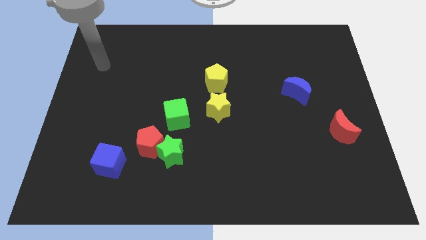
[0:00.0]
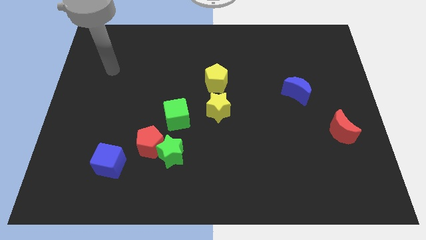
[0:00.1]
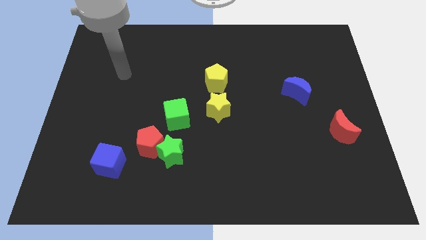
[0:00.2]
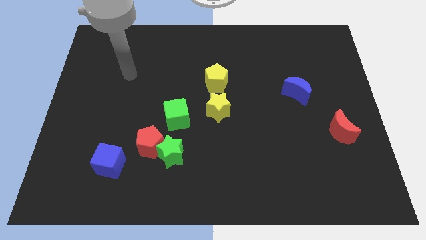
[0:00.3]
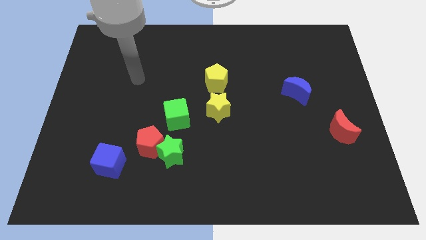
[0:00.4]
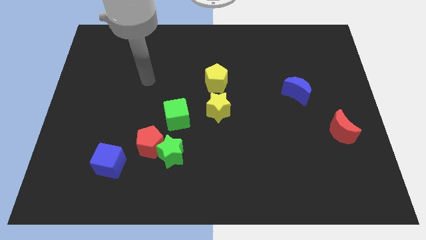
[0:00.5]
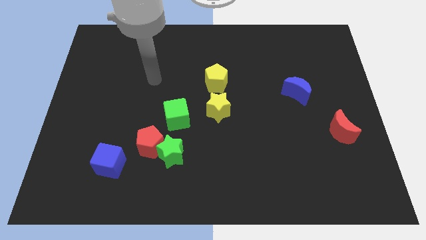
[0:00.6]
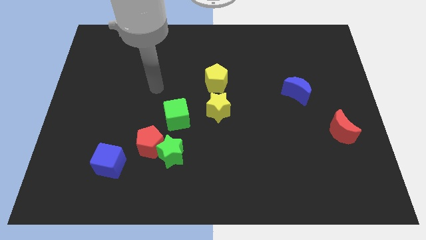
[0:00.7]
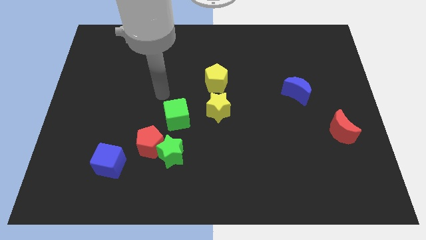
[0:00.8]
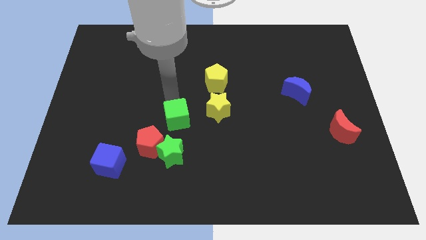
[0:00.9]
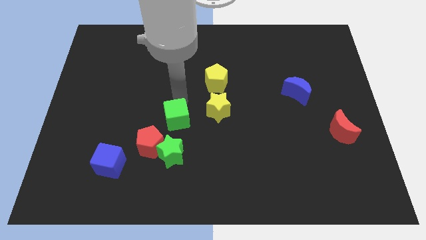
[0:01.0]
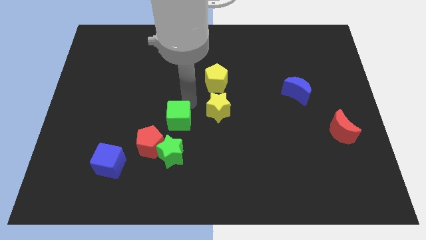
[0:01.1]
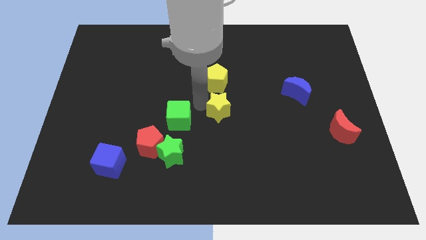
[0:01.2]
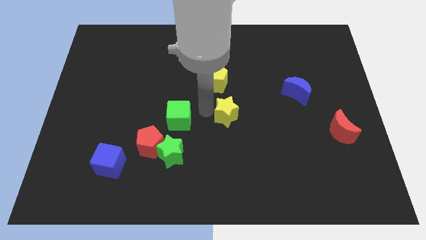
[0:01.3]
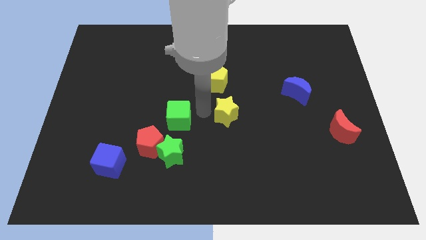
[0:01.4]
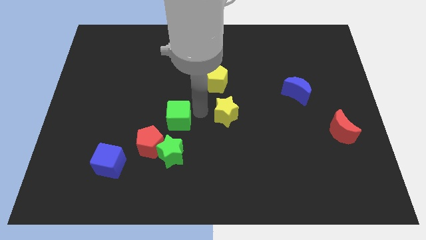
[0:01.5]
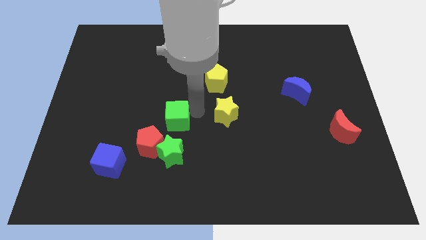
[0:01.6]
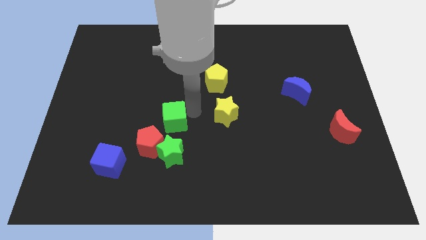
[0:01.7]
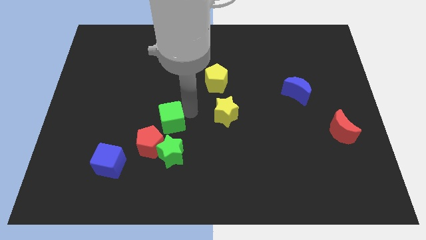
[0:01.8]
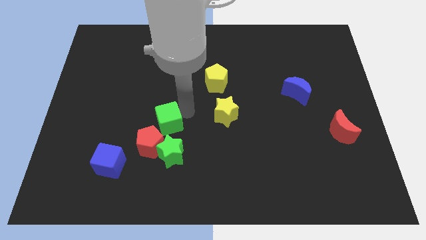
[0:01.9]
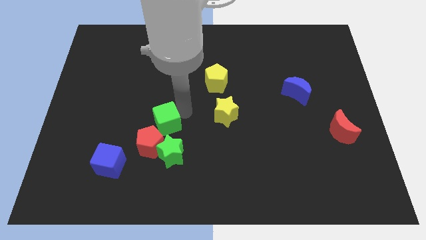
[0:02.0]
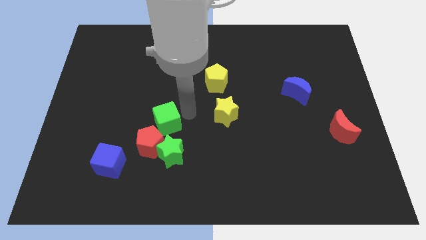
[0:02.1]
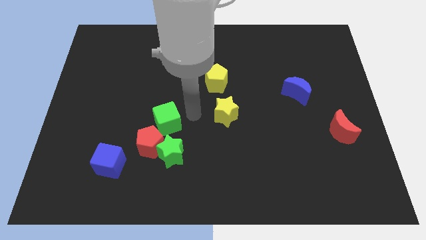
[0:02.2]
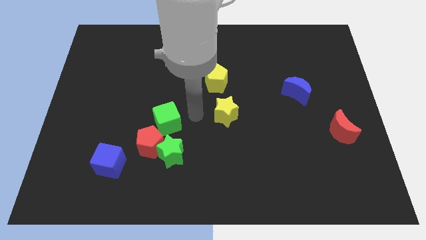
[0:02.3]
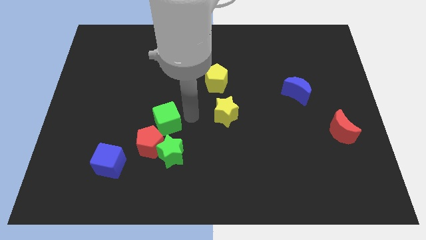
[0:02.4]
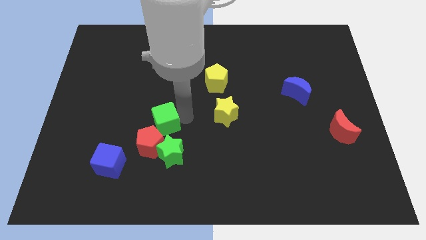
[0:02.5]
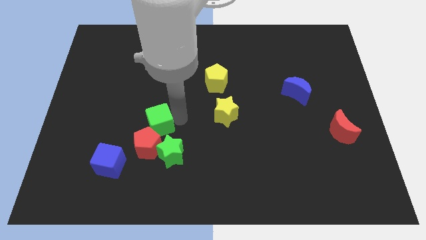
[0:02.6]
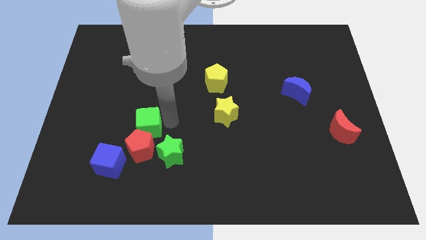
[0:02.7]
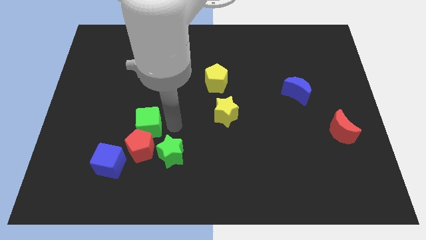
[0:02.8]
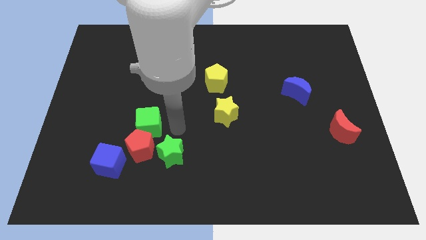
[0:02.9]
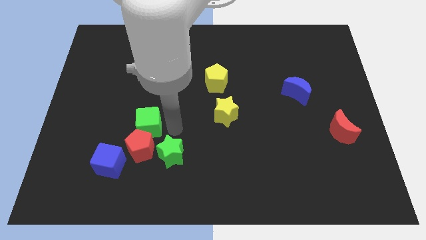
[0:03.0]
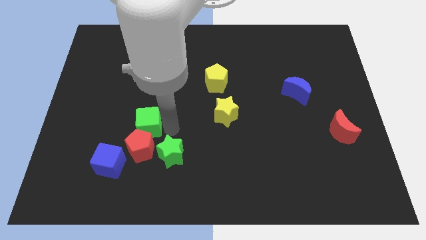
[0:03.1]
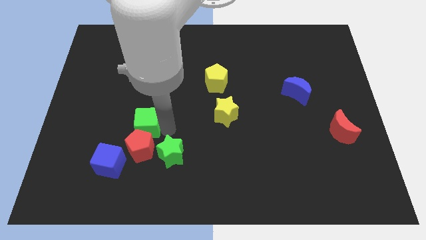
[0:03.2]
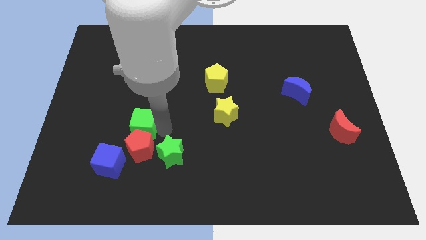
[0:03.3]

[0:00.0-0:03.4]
slightly move the green cube left

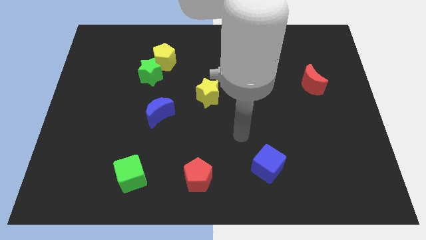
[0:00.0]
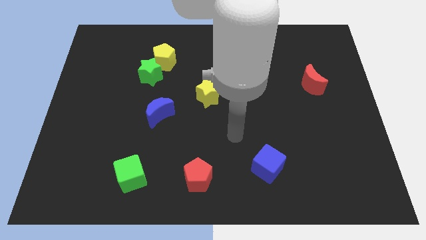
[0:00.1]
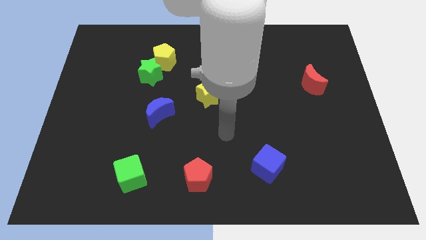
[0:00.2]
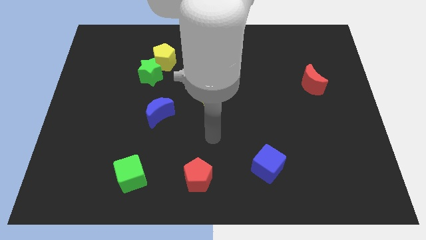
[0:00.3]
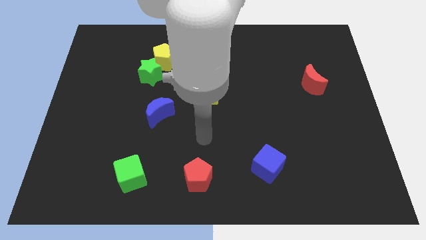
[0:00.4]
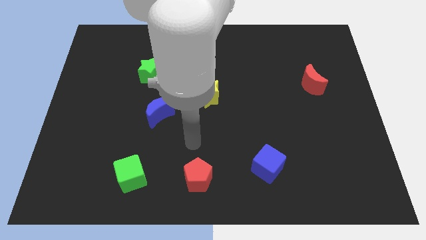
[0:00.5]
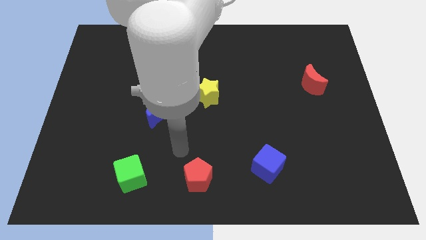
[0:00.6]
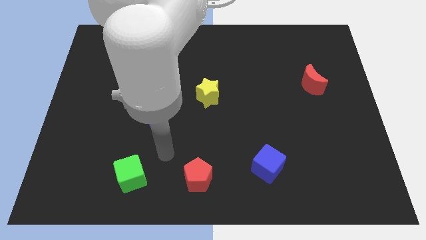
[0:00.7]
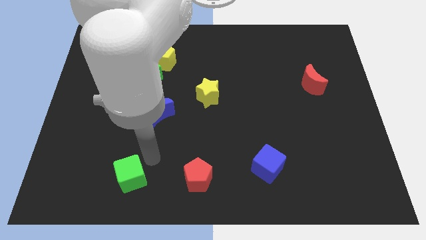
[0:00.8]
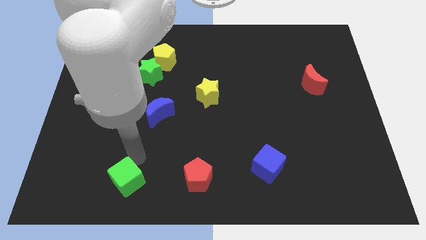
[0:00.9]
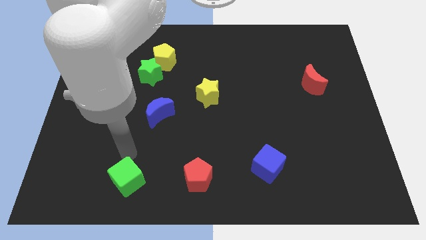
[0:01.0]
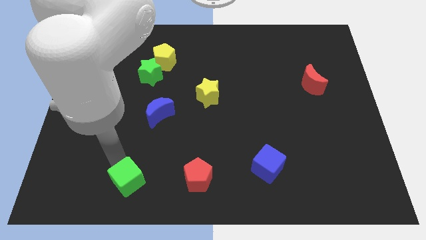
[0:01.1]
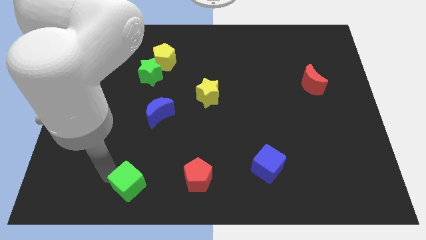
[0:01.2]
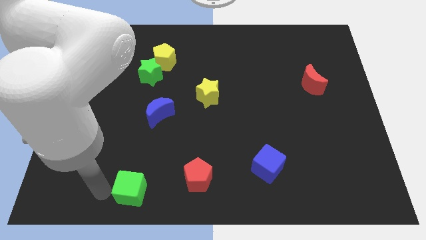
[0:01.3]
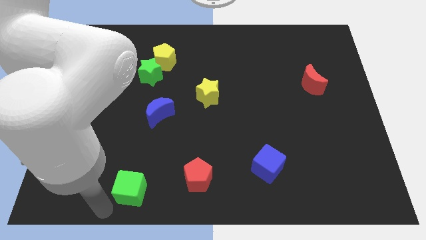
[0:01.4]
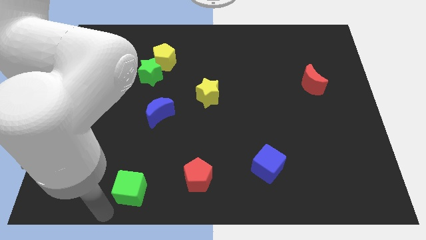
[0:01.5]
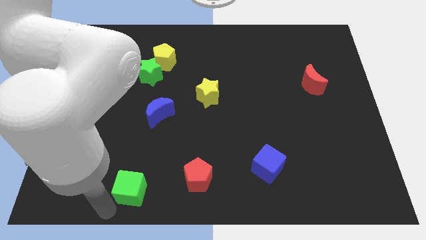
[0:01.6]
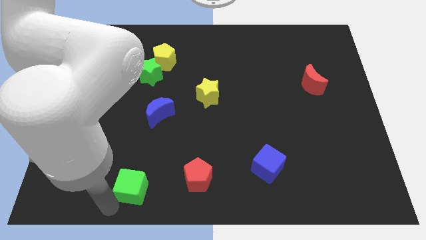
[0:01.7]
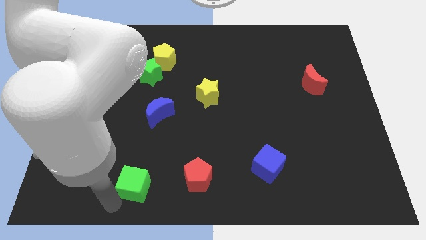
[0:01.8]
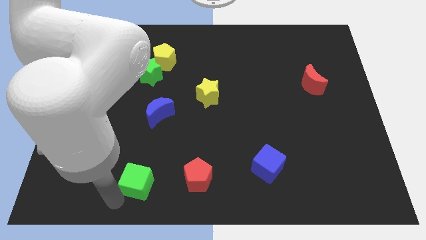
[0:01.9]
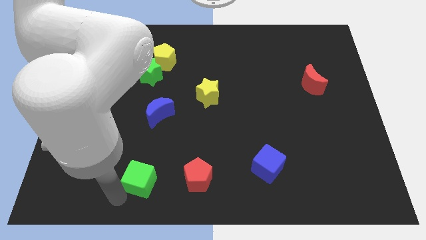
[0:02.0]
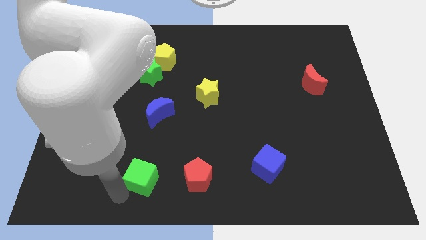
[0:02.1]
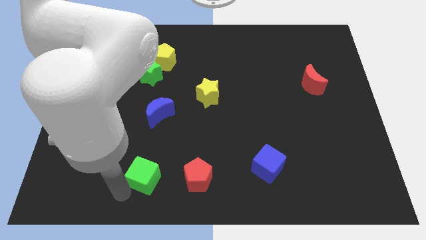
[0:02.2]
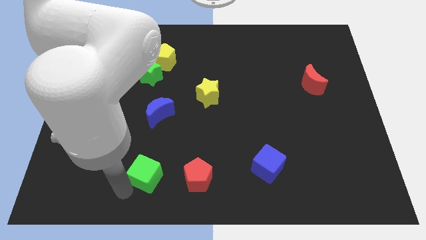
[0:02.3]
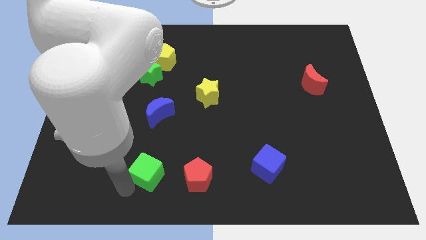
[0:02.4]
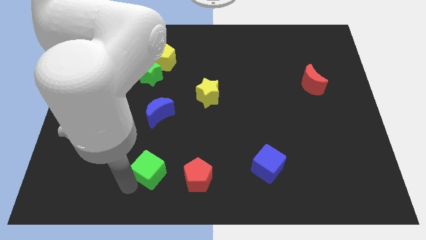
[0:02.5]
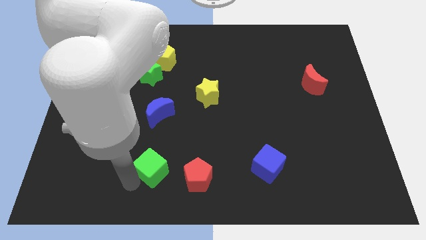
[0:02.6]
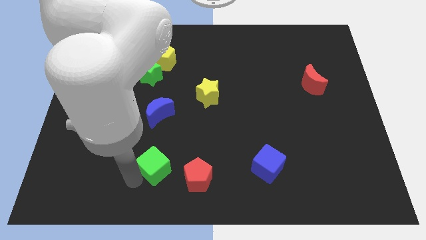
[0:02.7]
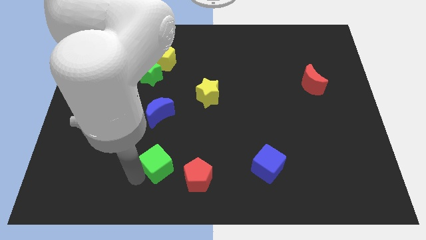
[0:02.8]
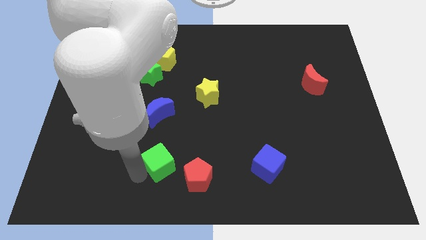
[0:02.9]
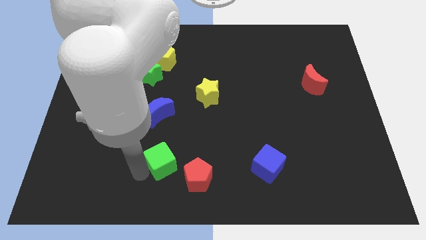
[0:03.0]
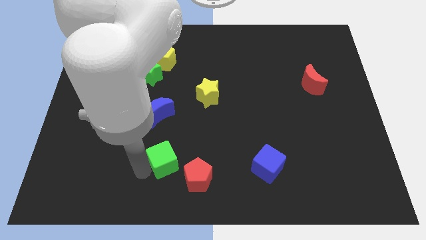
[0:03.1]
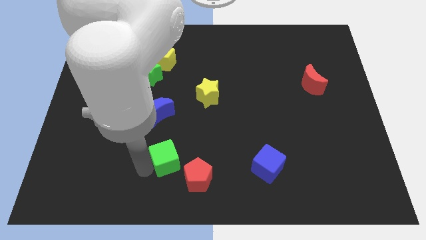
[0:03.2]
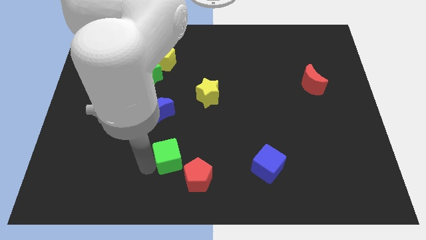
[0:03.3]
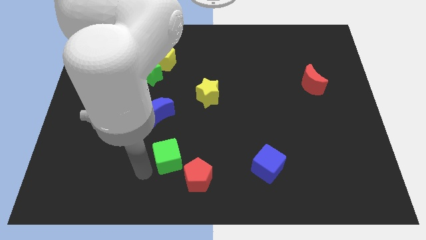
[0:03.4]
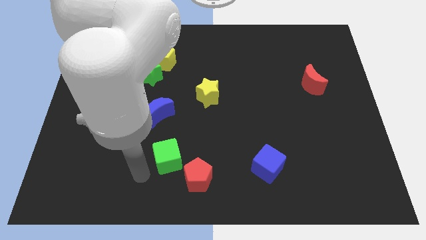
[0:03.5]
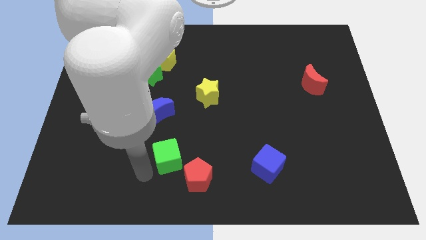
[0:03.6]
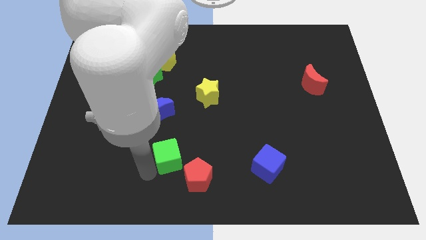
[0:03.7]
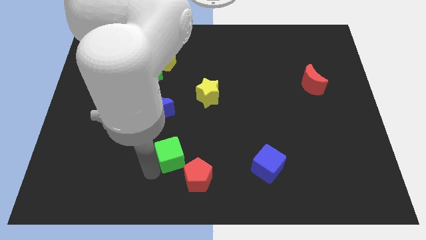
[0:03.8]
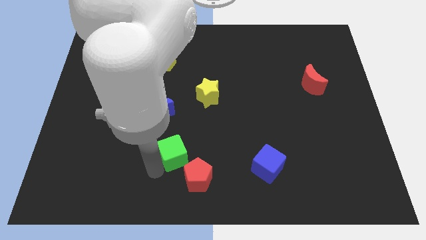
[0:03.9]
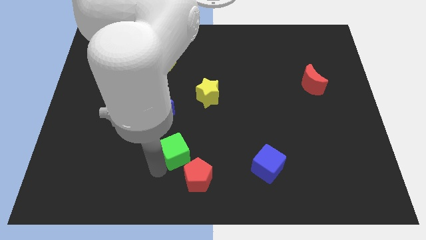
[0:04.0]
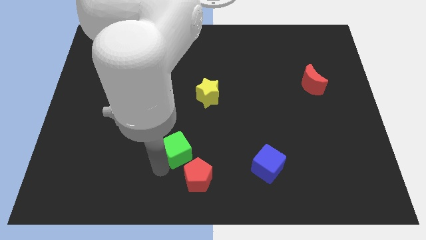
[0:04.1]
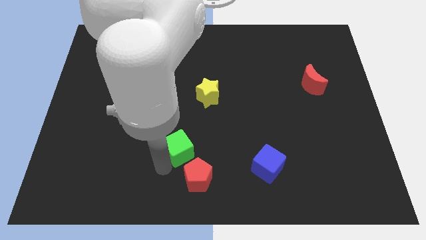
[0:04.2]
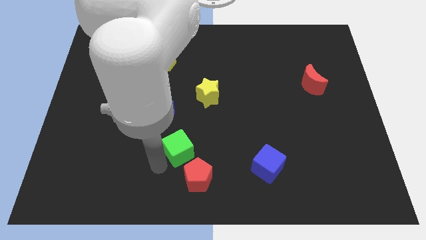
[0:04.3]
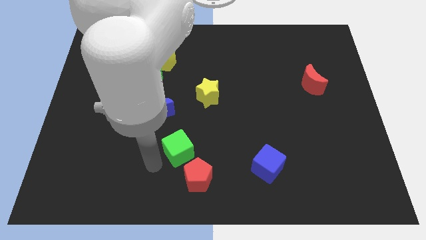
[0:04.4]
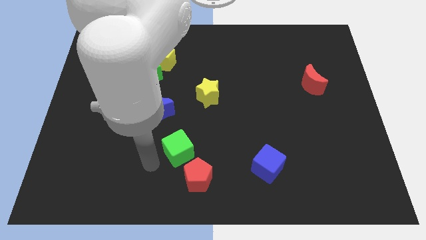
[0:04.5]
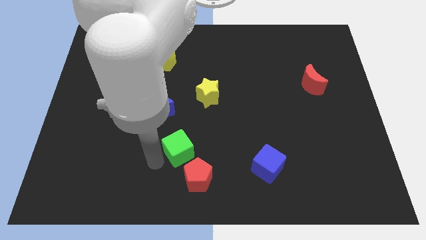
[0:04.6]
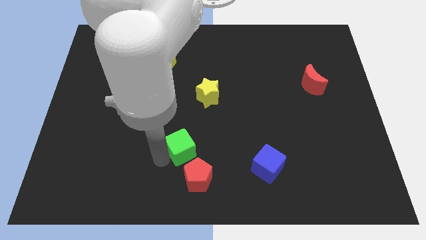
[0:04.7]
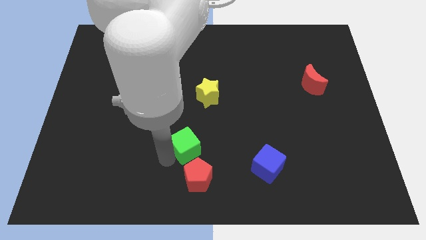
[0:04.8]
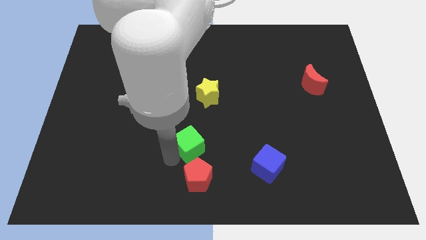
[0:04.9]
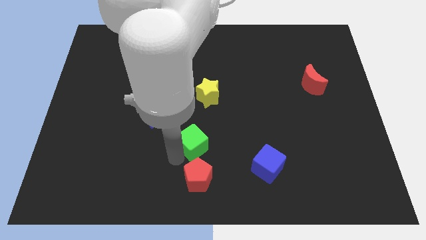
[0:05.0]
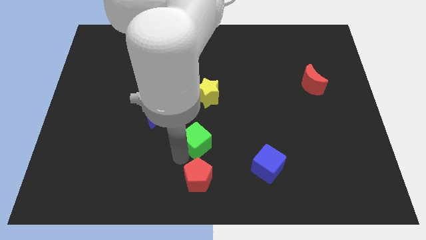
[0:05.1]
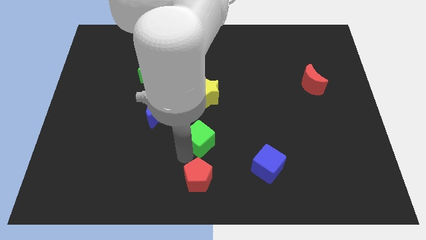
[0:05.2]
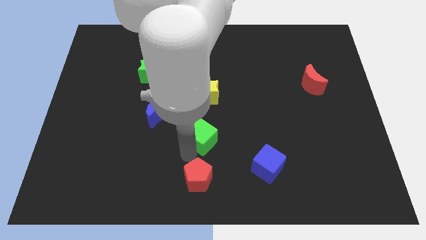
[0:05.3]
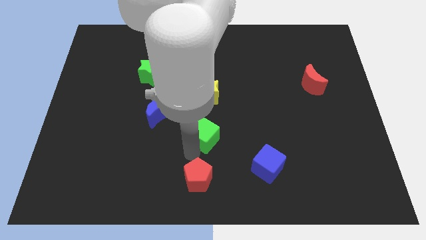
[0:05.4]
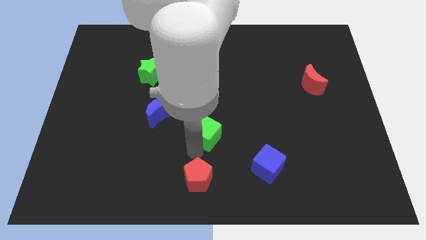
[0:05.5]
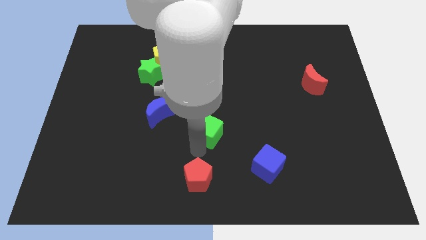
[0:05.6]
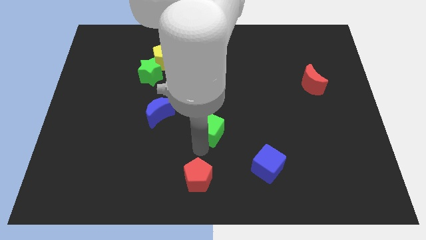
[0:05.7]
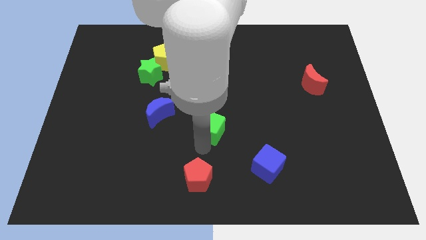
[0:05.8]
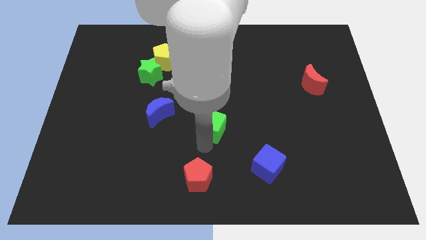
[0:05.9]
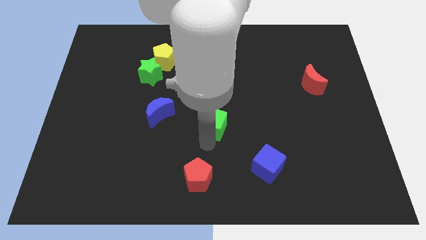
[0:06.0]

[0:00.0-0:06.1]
slide the green cube upwards and to the right
